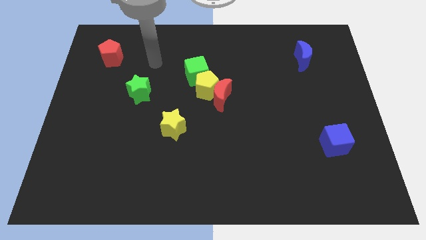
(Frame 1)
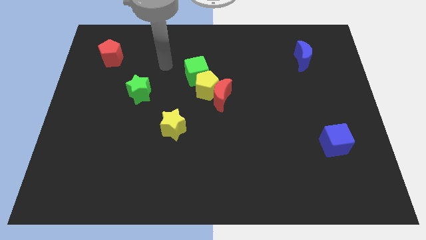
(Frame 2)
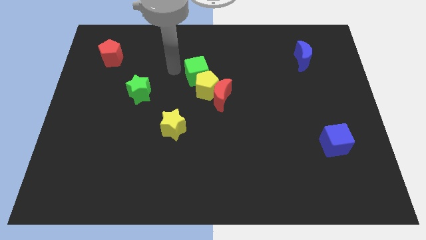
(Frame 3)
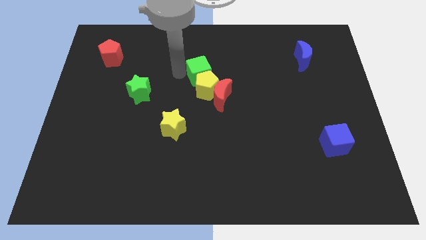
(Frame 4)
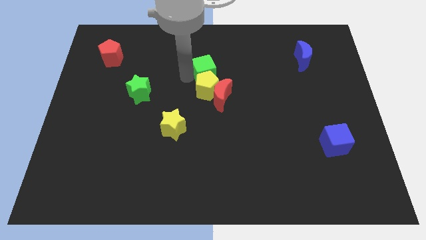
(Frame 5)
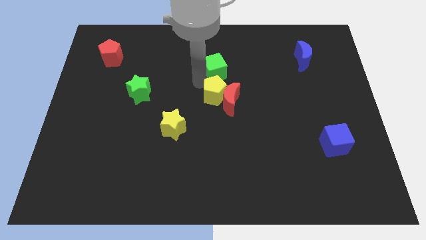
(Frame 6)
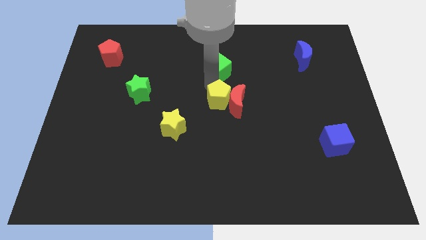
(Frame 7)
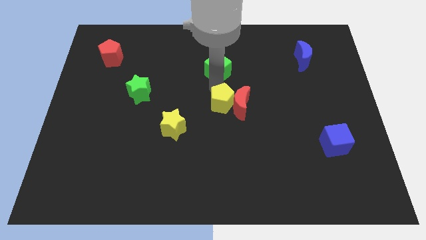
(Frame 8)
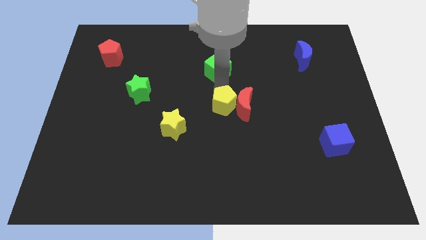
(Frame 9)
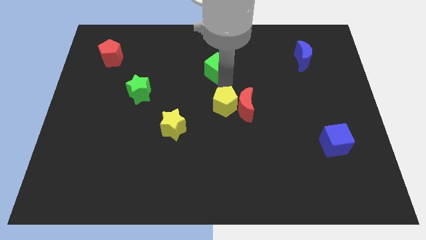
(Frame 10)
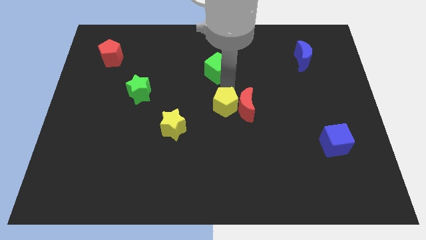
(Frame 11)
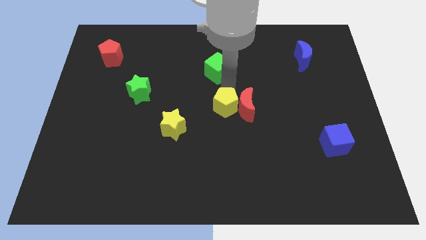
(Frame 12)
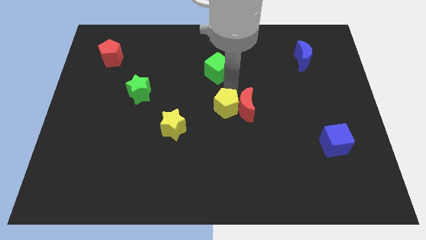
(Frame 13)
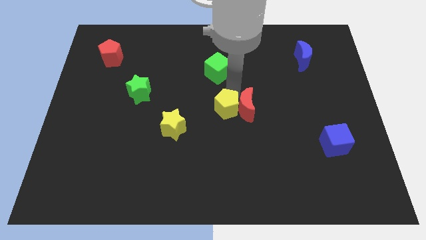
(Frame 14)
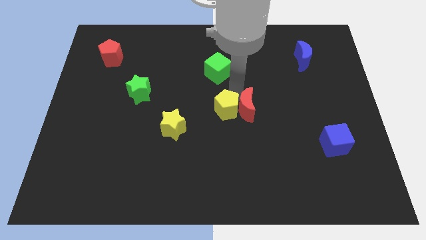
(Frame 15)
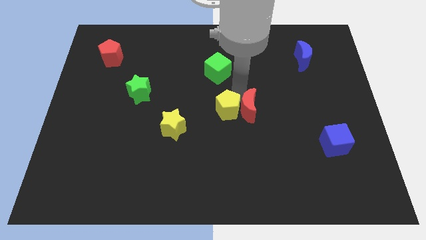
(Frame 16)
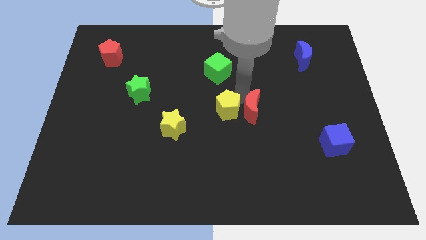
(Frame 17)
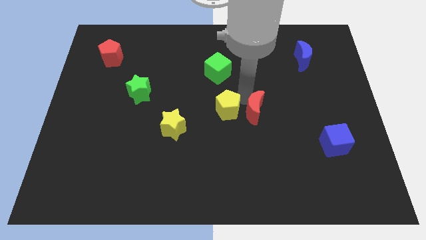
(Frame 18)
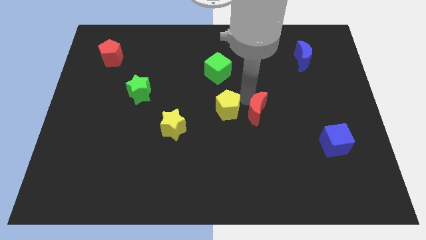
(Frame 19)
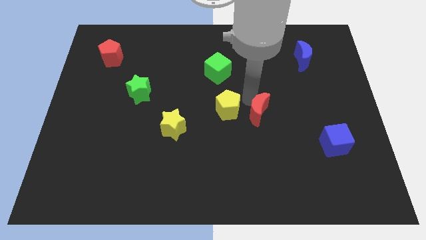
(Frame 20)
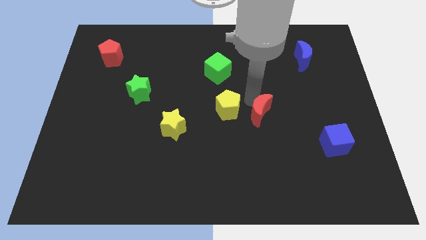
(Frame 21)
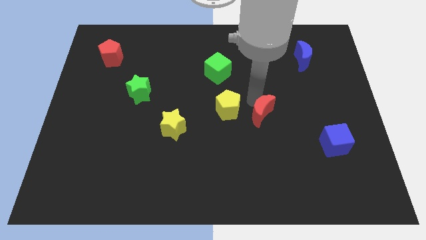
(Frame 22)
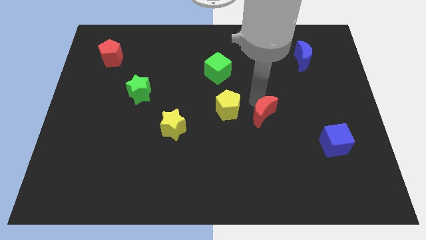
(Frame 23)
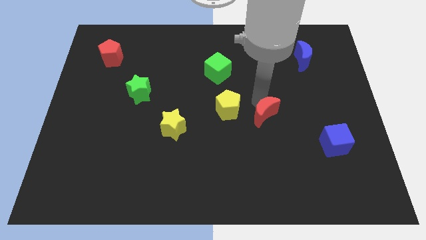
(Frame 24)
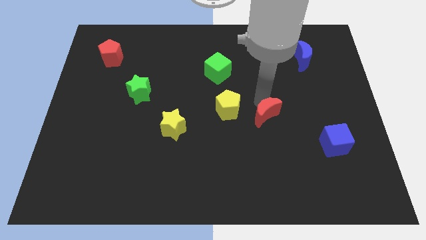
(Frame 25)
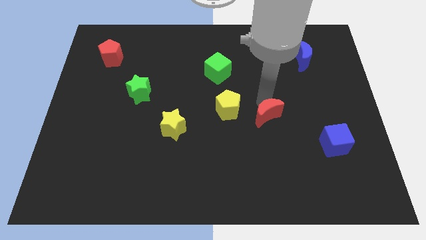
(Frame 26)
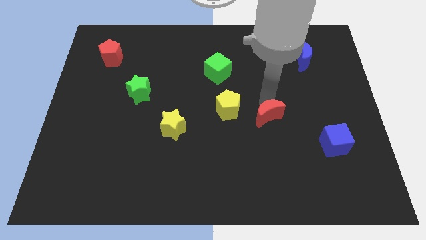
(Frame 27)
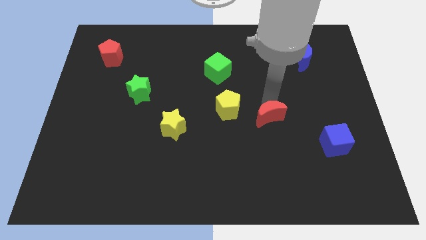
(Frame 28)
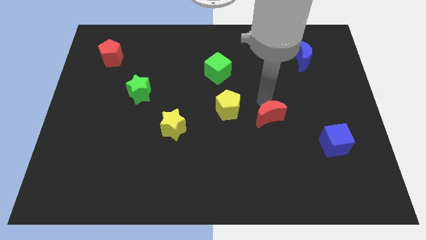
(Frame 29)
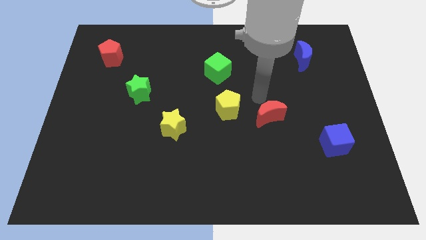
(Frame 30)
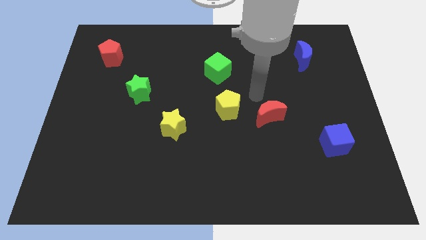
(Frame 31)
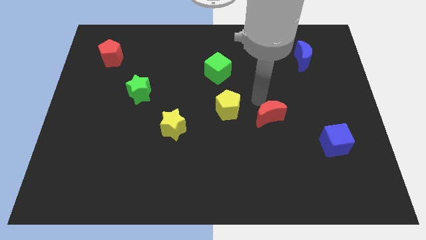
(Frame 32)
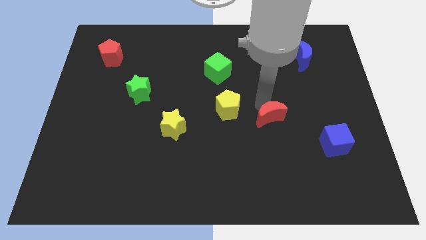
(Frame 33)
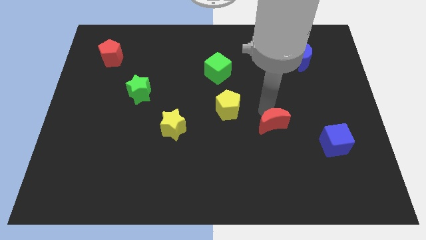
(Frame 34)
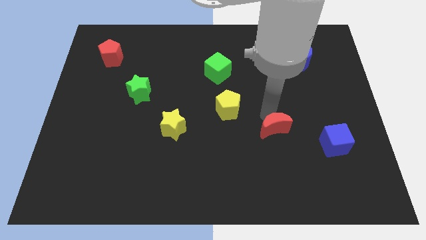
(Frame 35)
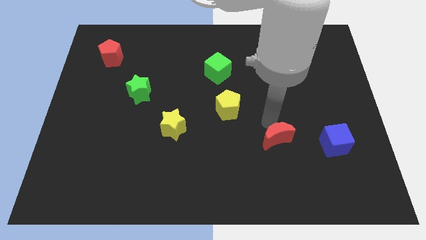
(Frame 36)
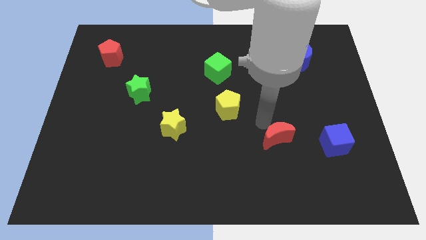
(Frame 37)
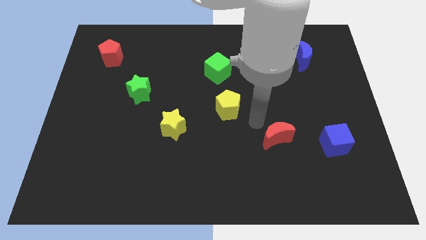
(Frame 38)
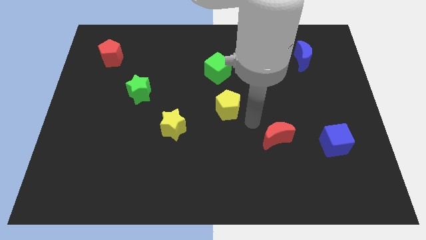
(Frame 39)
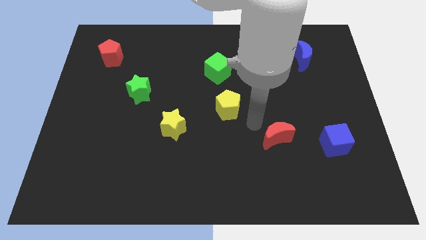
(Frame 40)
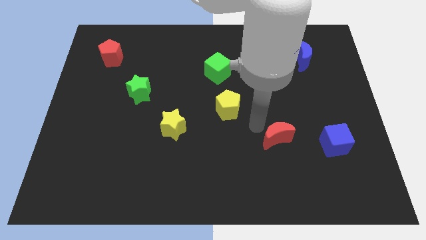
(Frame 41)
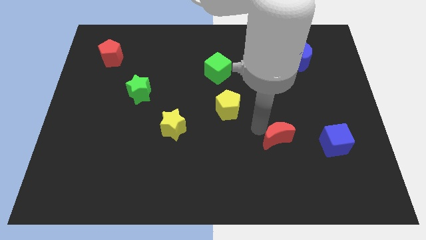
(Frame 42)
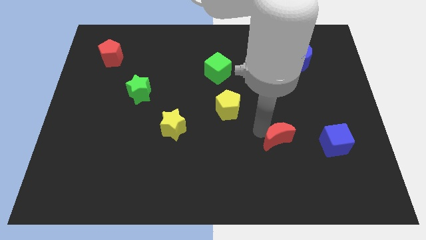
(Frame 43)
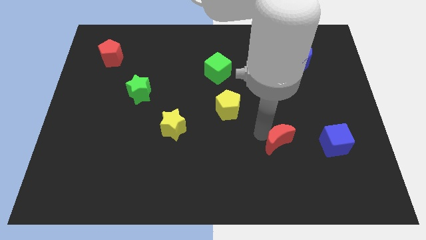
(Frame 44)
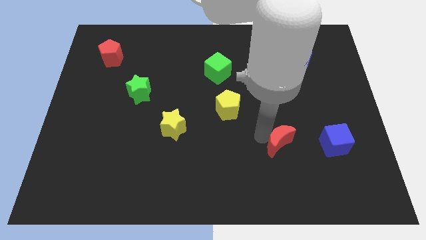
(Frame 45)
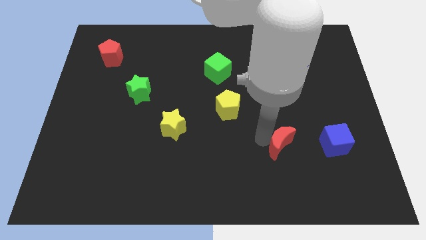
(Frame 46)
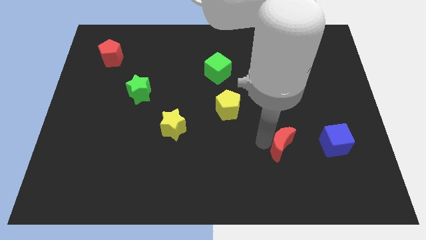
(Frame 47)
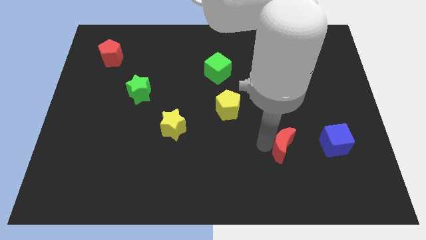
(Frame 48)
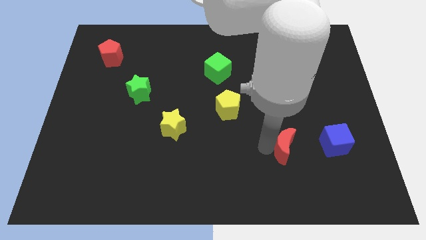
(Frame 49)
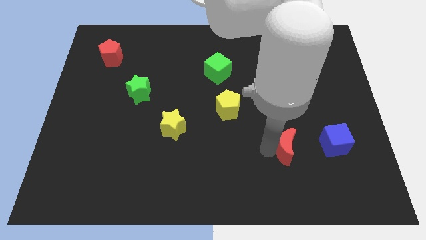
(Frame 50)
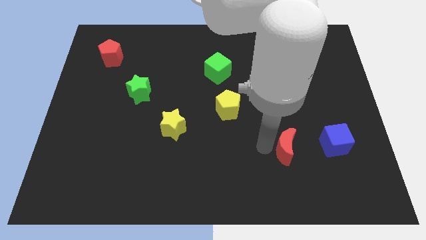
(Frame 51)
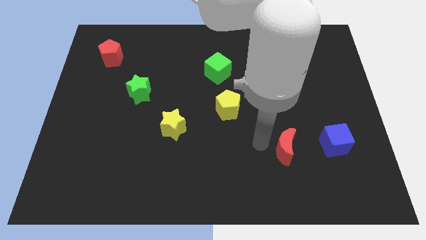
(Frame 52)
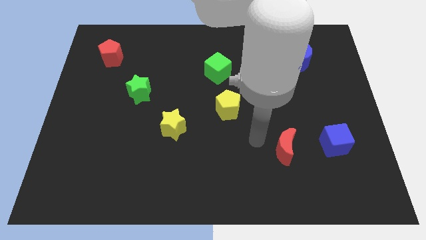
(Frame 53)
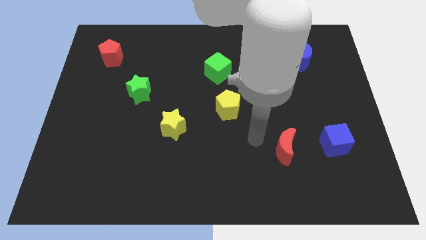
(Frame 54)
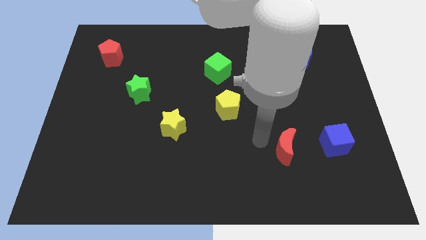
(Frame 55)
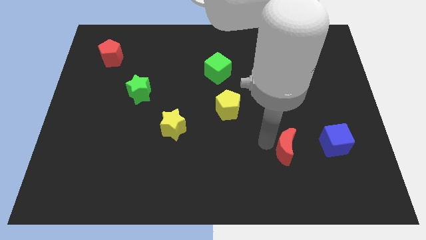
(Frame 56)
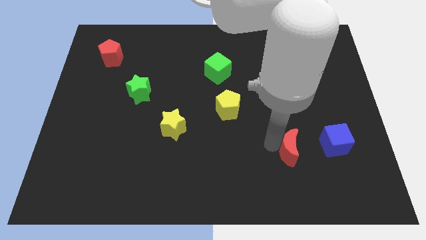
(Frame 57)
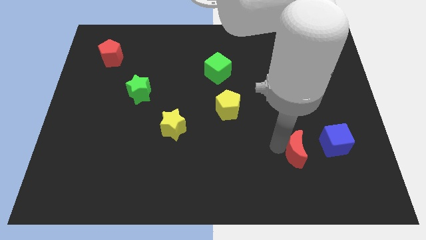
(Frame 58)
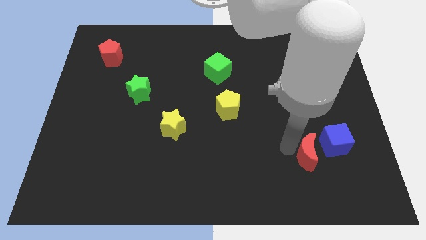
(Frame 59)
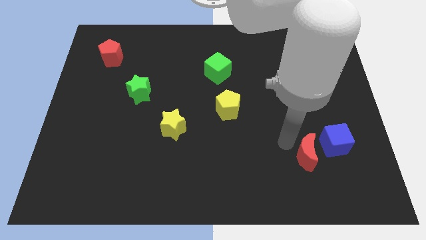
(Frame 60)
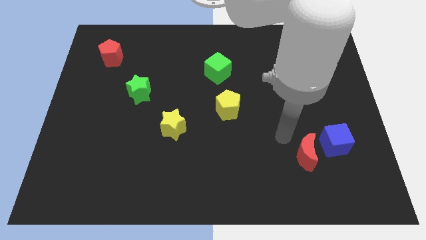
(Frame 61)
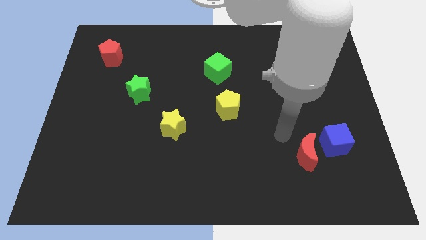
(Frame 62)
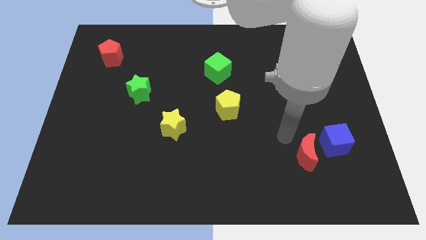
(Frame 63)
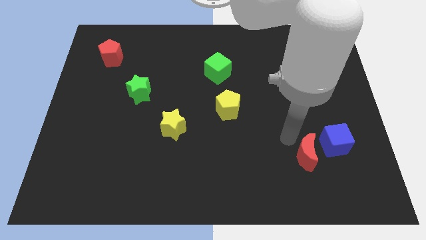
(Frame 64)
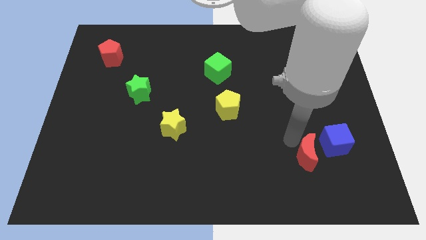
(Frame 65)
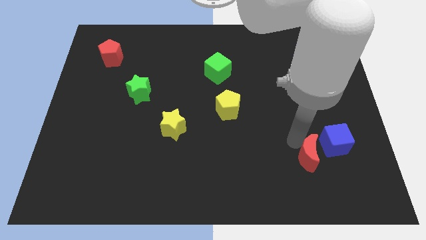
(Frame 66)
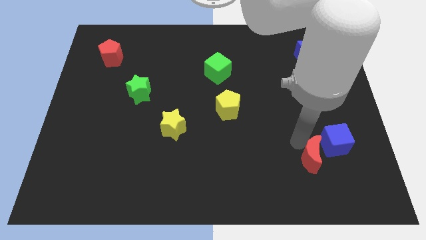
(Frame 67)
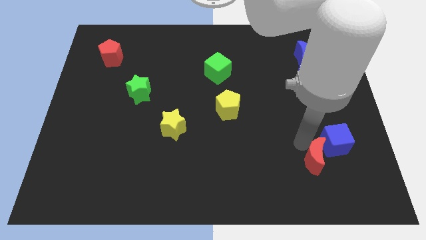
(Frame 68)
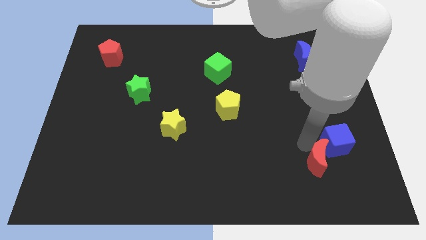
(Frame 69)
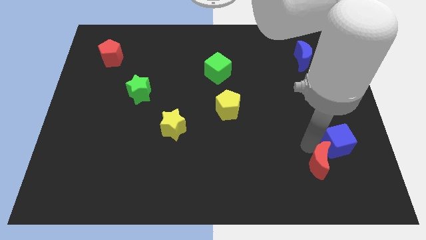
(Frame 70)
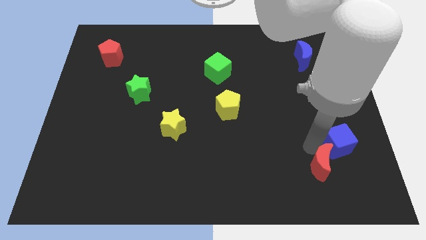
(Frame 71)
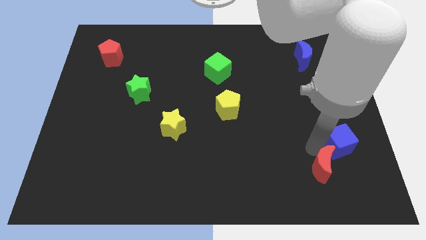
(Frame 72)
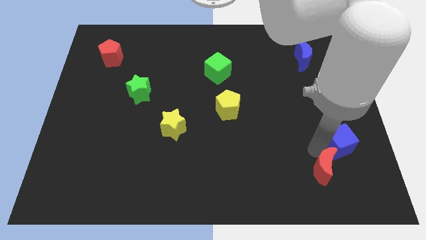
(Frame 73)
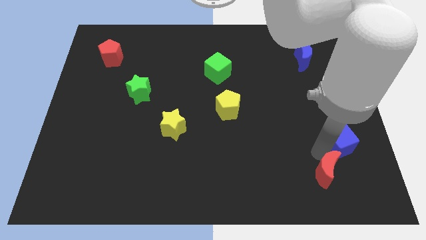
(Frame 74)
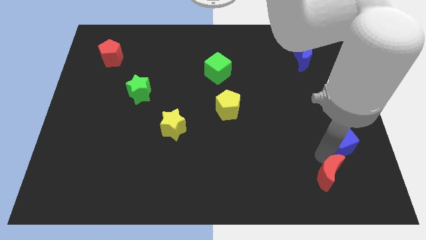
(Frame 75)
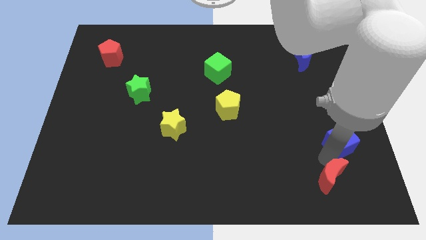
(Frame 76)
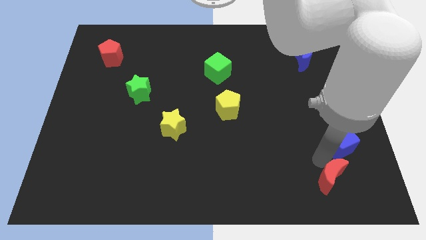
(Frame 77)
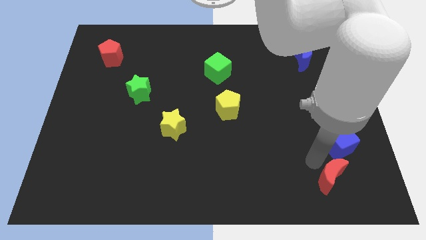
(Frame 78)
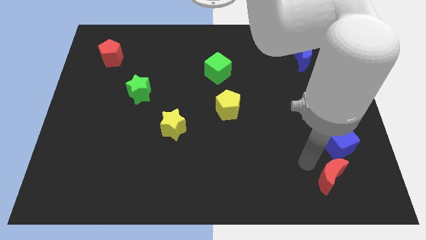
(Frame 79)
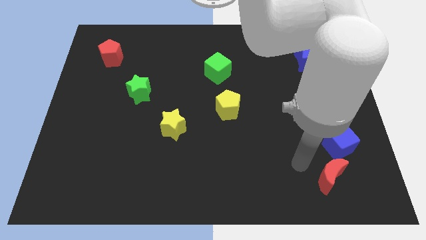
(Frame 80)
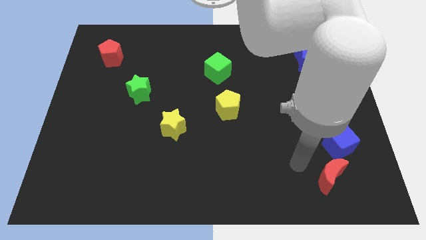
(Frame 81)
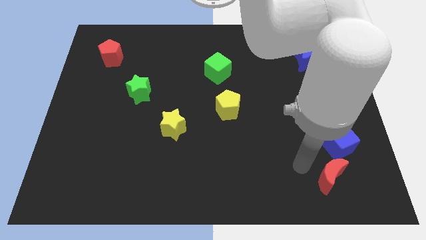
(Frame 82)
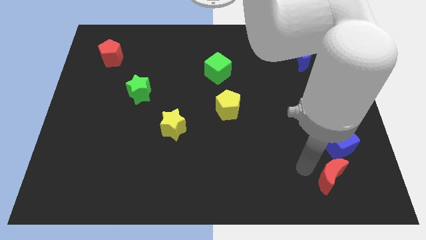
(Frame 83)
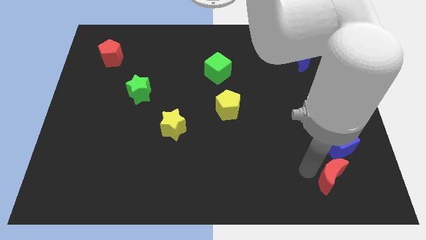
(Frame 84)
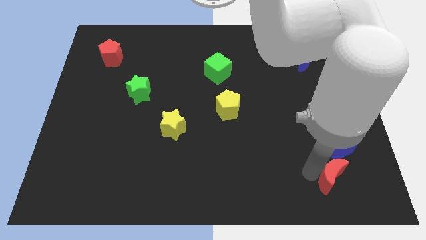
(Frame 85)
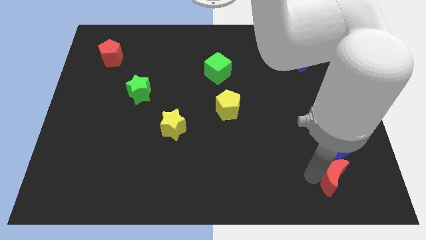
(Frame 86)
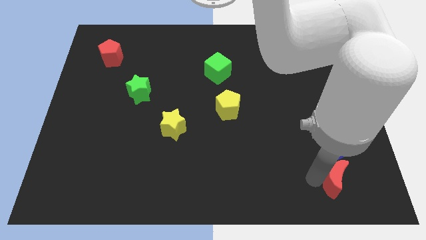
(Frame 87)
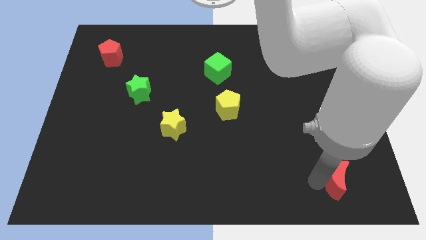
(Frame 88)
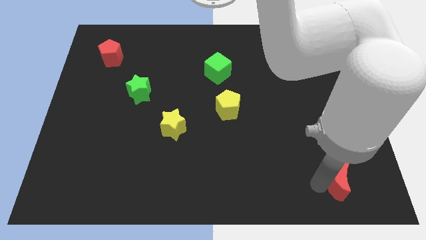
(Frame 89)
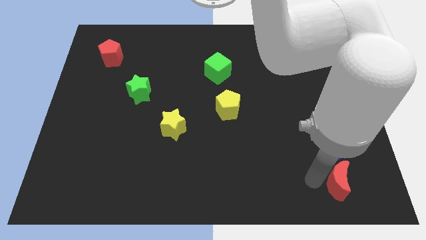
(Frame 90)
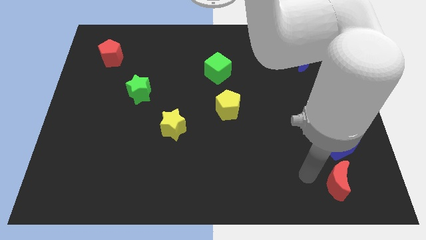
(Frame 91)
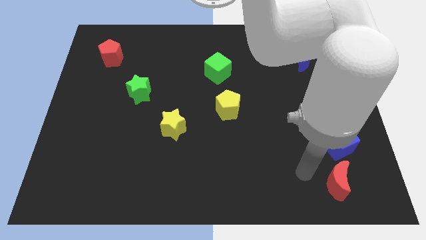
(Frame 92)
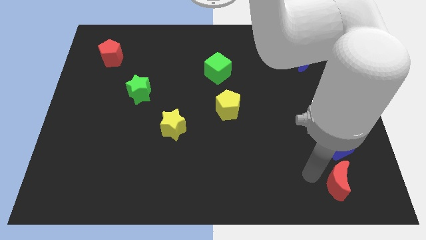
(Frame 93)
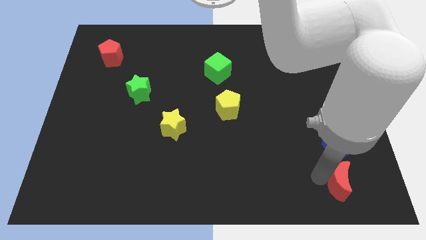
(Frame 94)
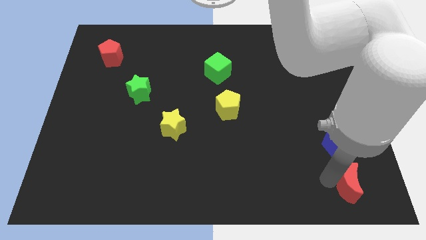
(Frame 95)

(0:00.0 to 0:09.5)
push the red moon to the bottom right corner
